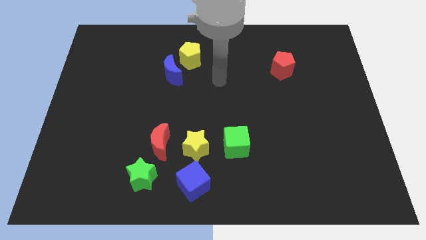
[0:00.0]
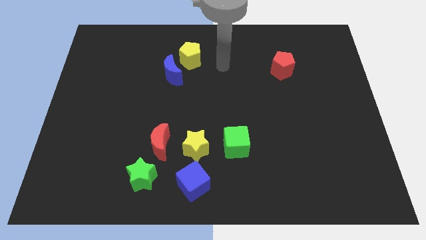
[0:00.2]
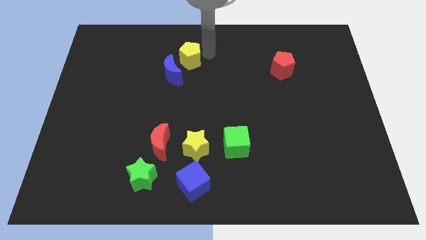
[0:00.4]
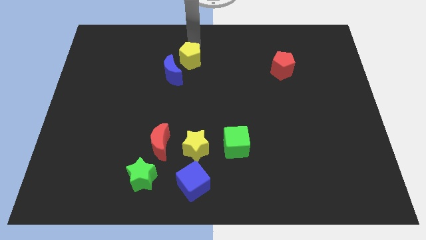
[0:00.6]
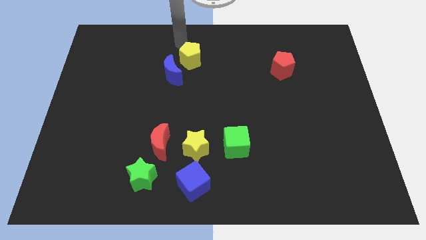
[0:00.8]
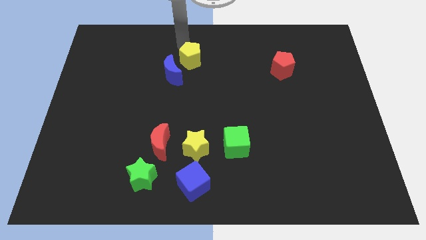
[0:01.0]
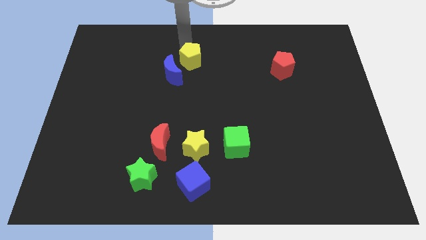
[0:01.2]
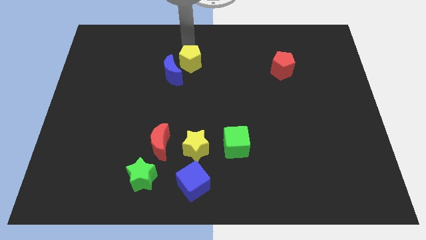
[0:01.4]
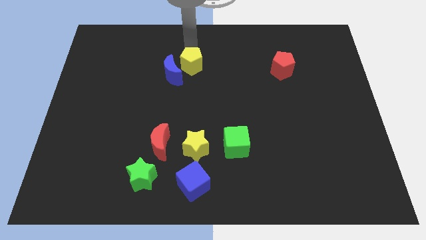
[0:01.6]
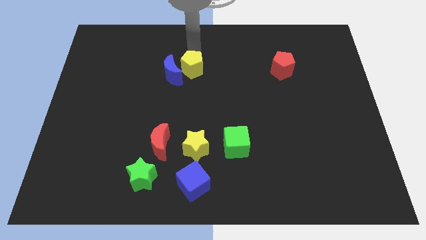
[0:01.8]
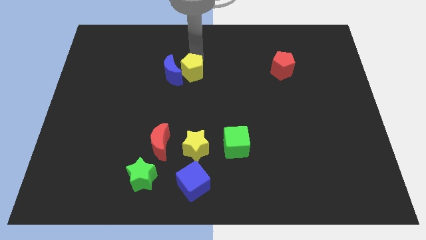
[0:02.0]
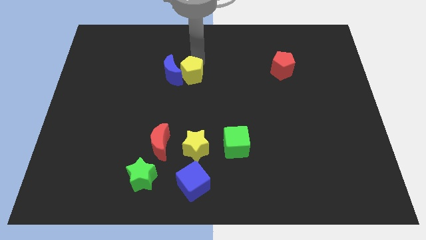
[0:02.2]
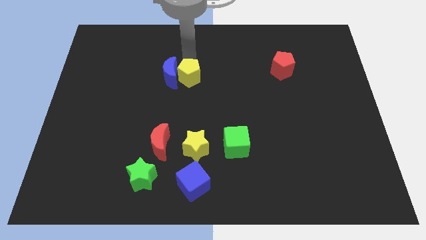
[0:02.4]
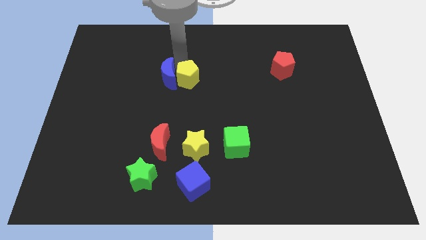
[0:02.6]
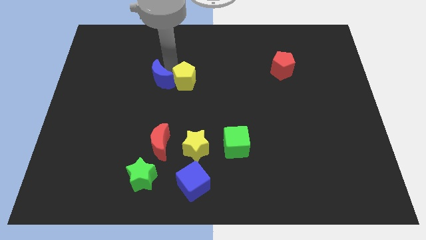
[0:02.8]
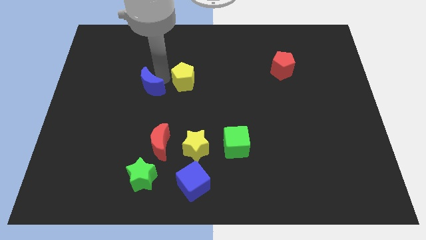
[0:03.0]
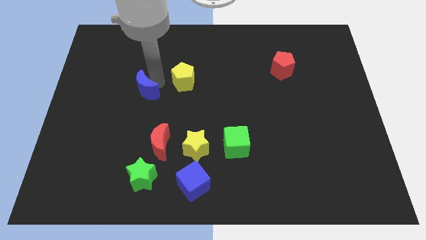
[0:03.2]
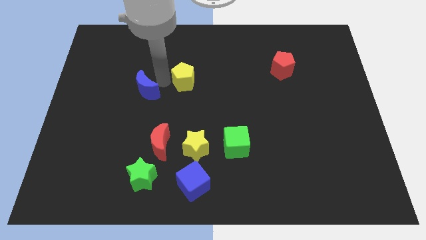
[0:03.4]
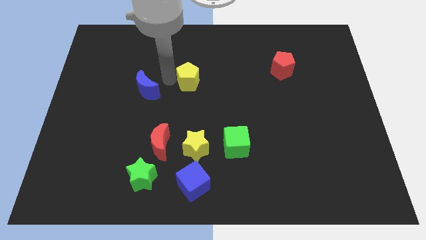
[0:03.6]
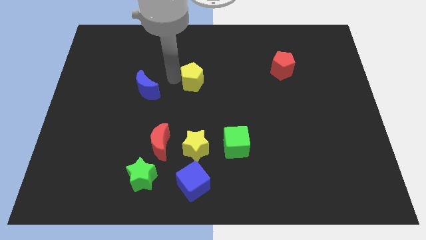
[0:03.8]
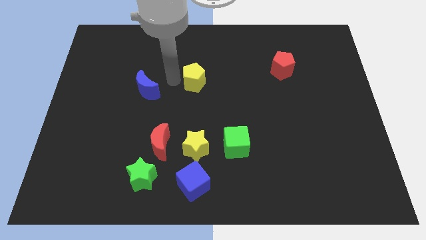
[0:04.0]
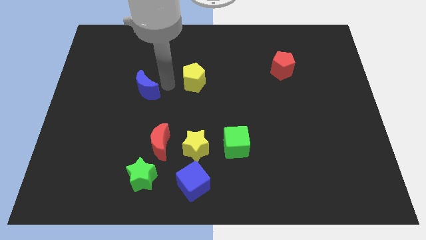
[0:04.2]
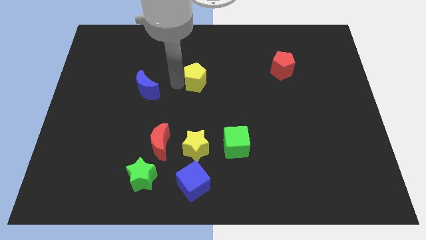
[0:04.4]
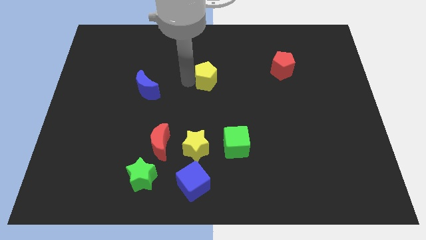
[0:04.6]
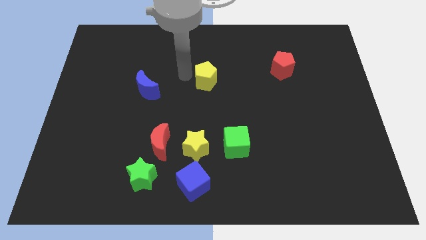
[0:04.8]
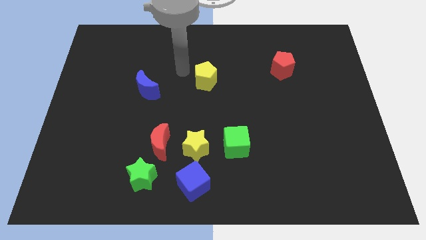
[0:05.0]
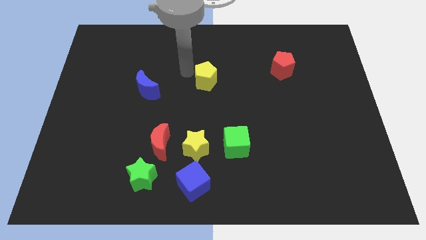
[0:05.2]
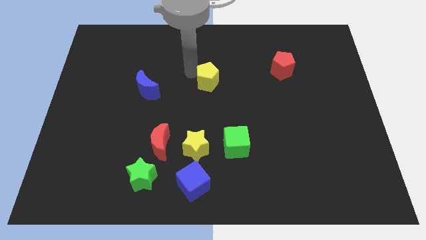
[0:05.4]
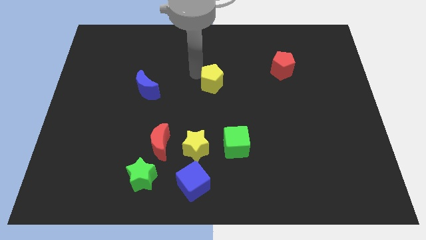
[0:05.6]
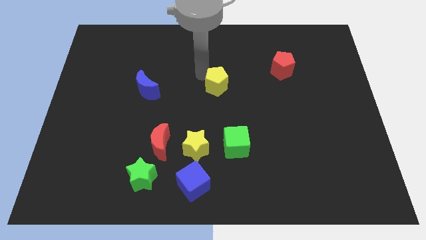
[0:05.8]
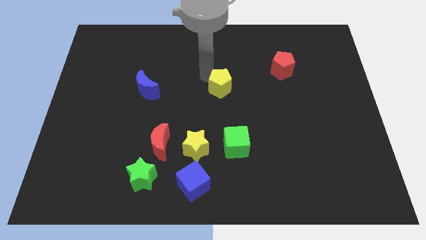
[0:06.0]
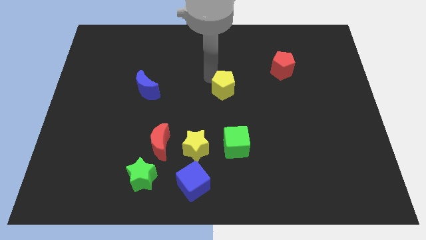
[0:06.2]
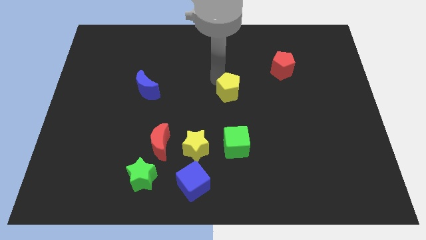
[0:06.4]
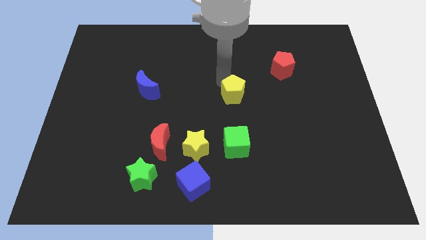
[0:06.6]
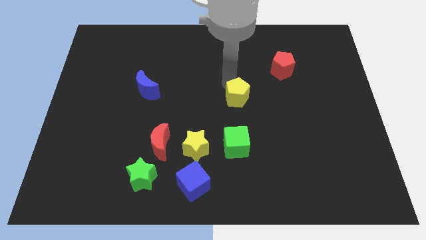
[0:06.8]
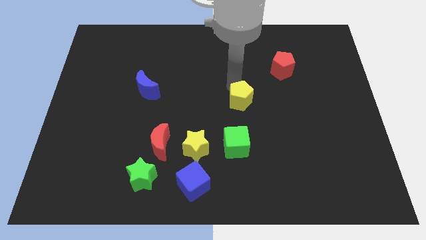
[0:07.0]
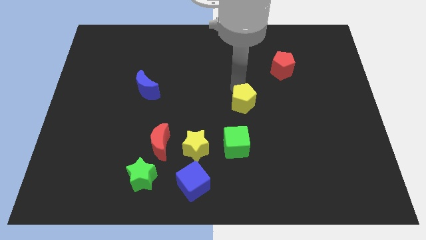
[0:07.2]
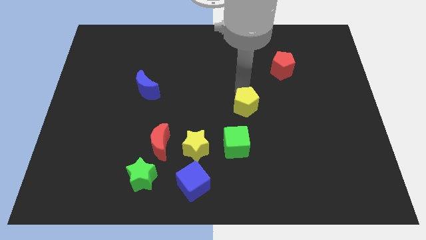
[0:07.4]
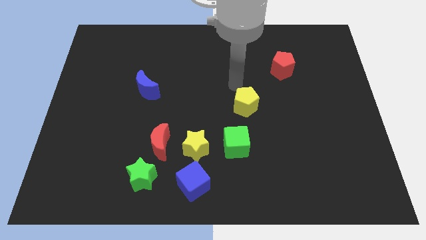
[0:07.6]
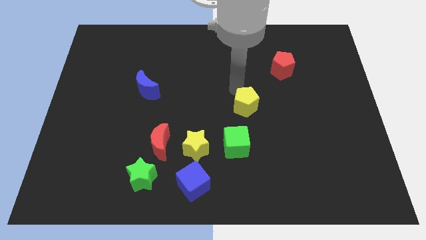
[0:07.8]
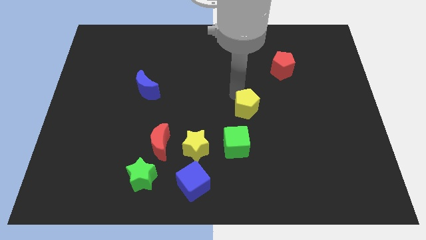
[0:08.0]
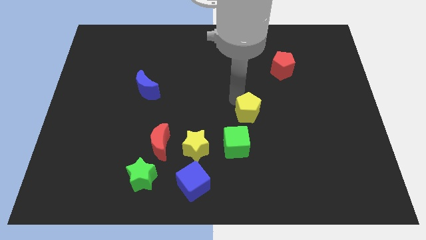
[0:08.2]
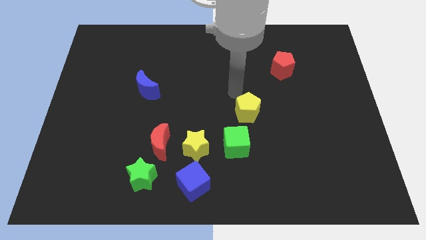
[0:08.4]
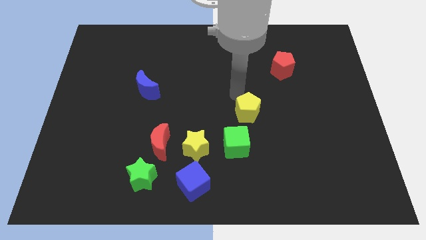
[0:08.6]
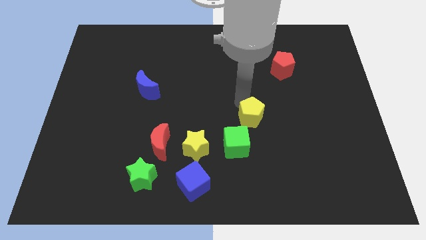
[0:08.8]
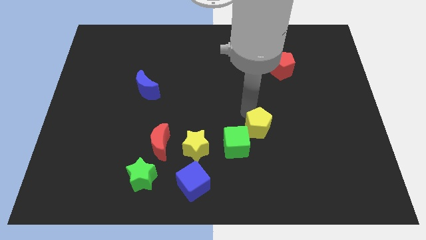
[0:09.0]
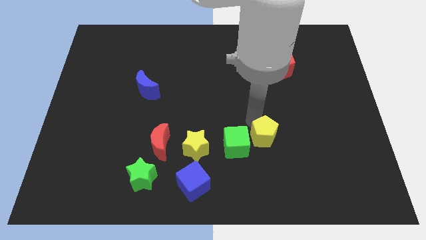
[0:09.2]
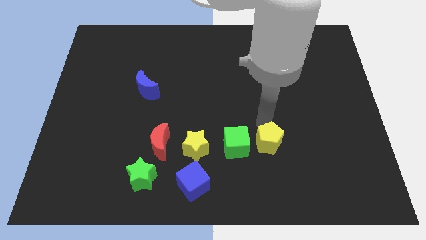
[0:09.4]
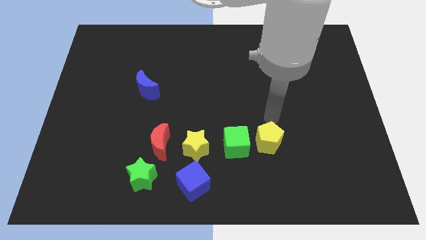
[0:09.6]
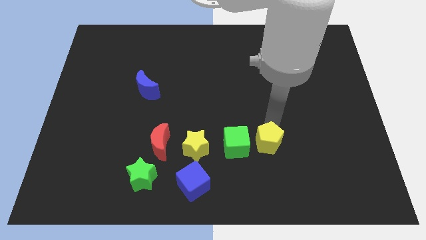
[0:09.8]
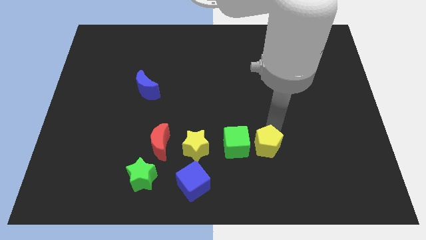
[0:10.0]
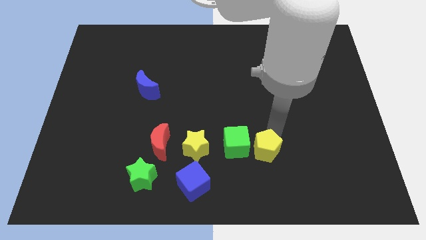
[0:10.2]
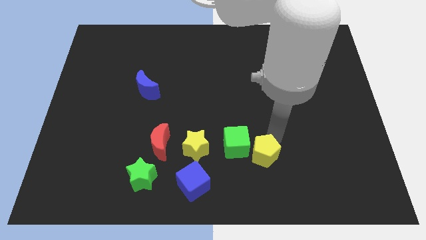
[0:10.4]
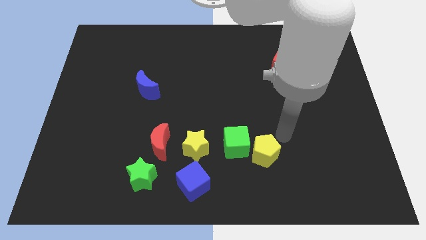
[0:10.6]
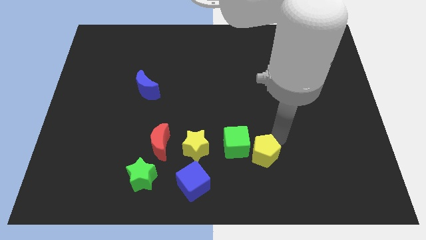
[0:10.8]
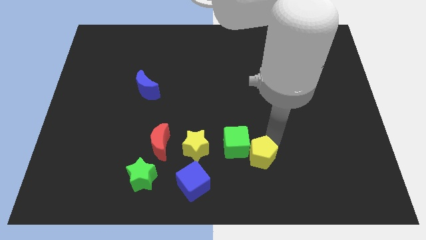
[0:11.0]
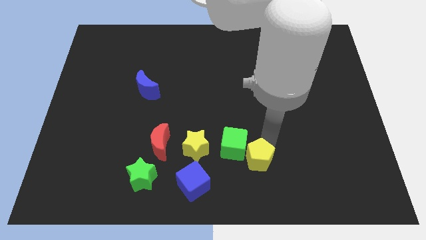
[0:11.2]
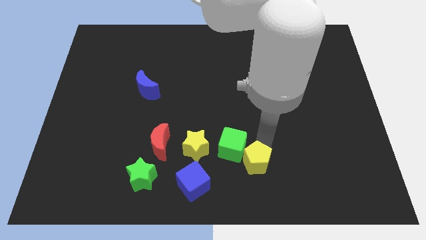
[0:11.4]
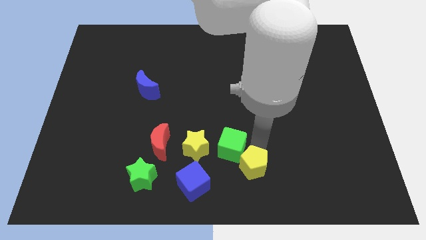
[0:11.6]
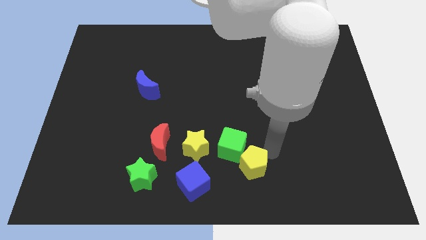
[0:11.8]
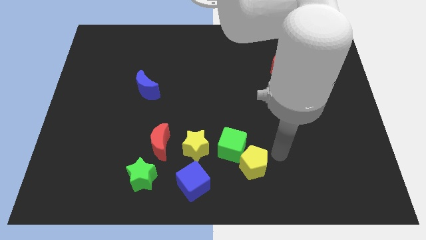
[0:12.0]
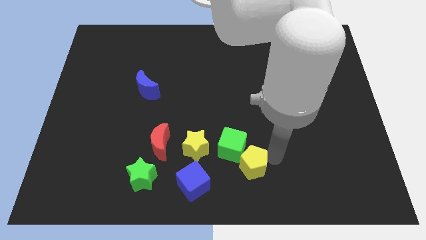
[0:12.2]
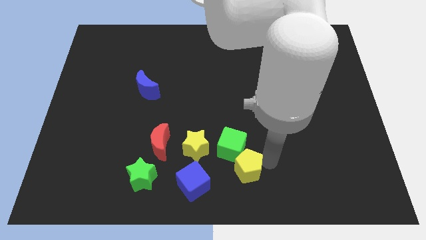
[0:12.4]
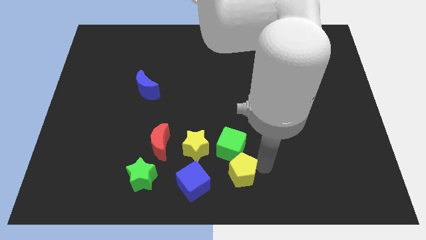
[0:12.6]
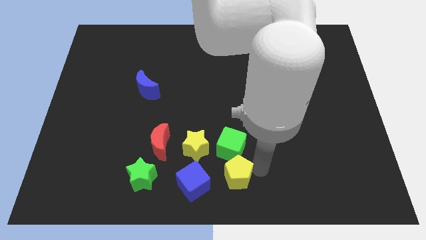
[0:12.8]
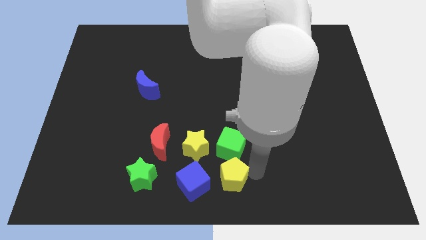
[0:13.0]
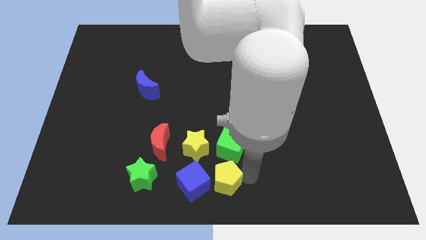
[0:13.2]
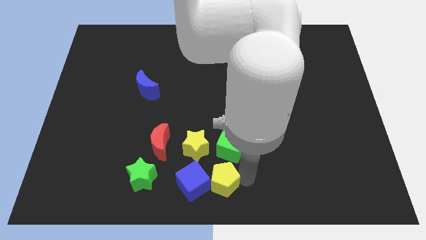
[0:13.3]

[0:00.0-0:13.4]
put the yellow pentagon to the blue cube
